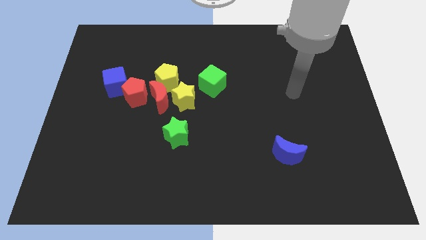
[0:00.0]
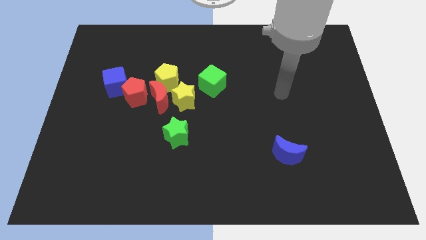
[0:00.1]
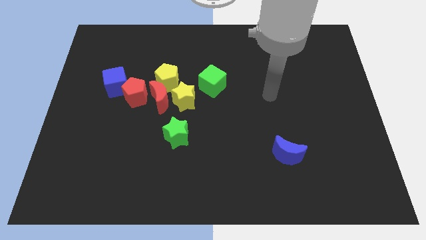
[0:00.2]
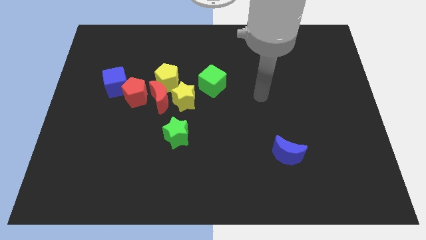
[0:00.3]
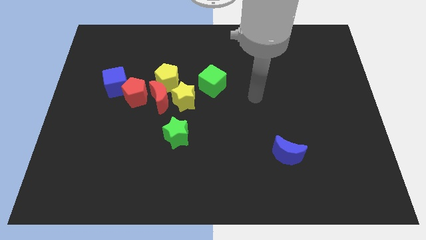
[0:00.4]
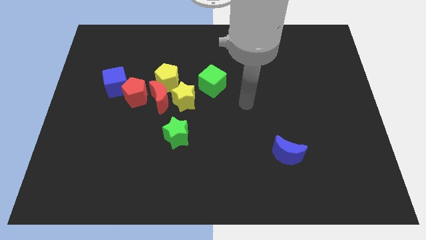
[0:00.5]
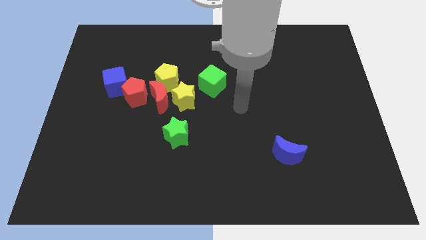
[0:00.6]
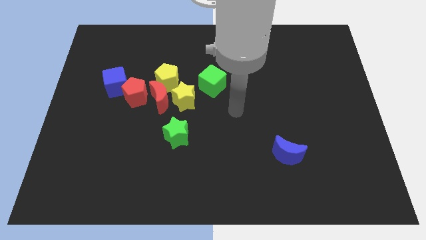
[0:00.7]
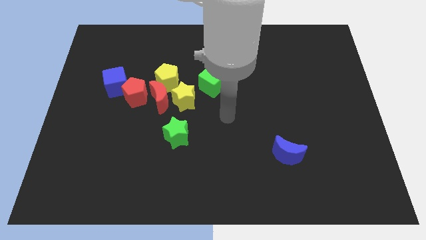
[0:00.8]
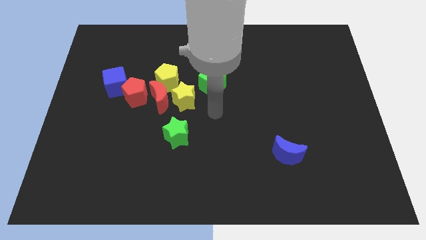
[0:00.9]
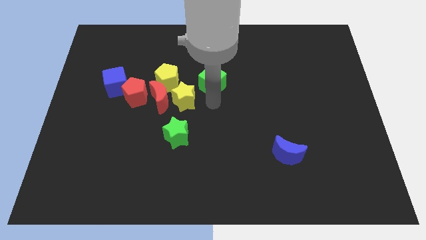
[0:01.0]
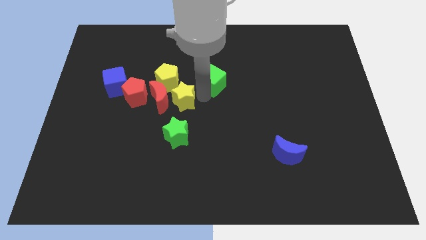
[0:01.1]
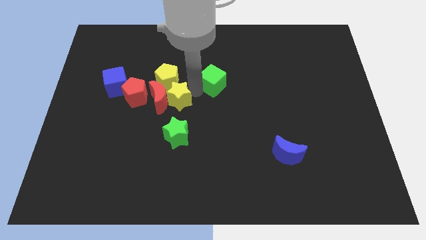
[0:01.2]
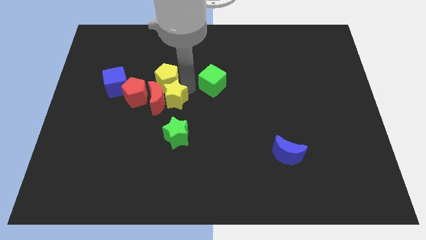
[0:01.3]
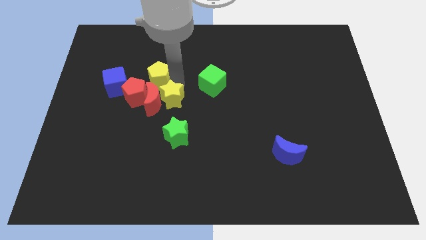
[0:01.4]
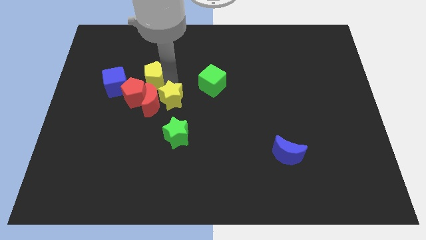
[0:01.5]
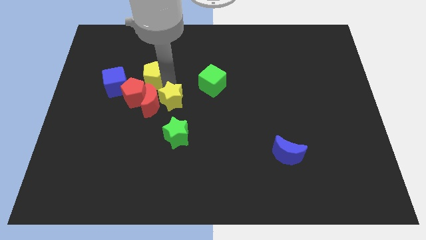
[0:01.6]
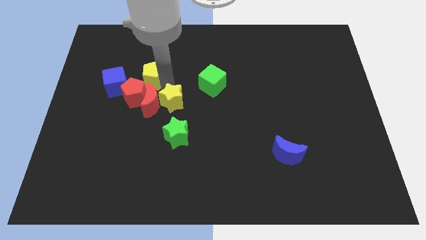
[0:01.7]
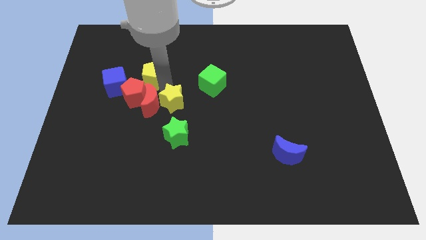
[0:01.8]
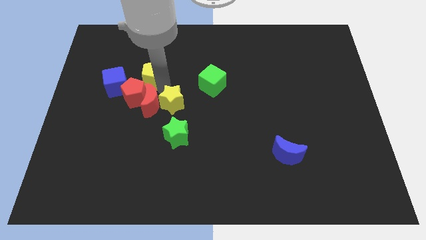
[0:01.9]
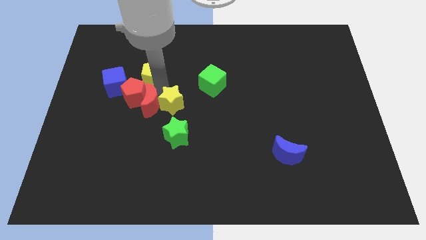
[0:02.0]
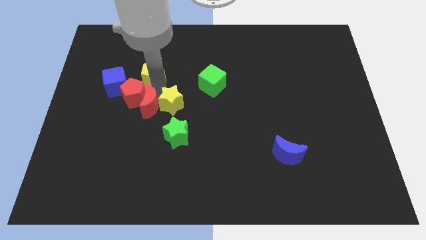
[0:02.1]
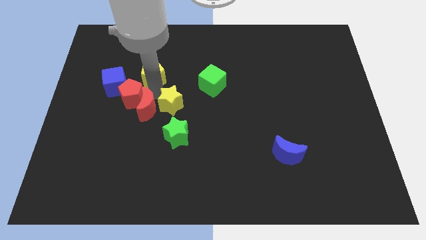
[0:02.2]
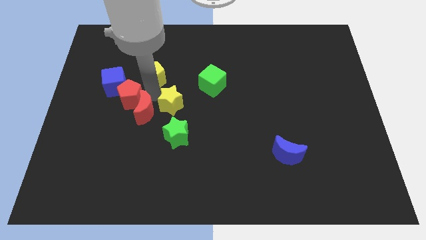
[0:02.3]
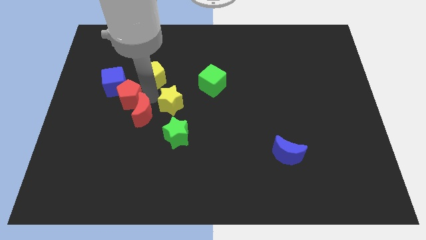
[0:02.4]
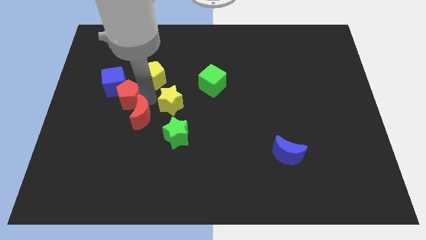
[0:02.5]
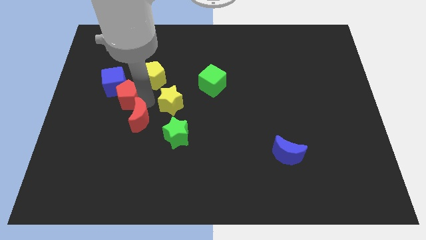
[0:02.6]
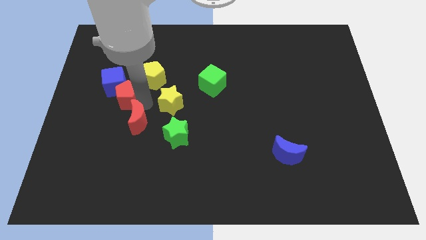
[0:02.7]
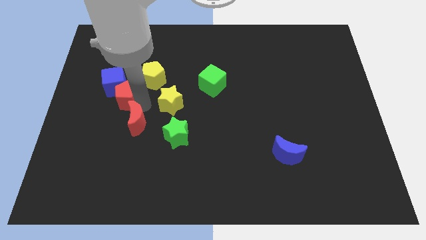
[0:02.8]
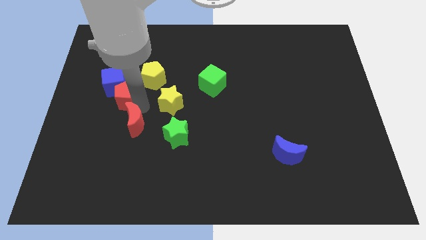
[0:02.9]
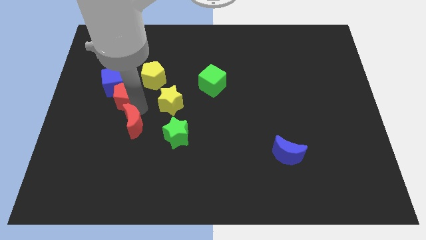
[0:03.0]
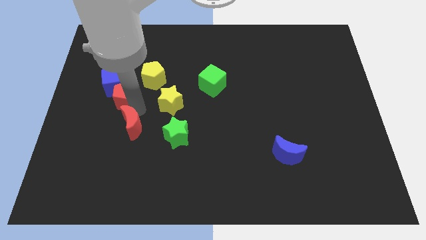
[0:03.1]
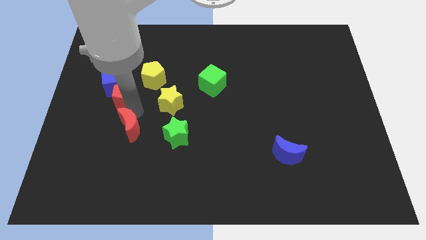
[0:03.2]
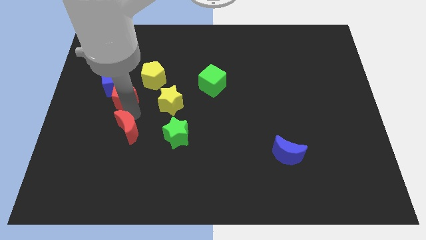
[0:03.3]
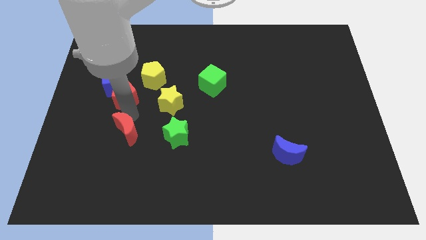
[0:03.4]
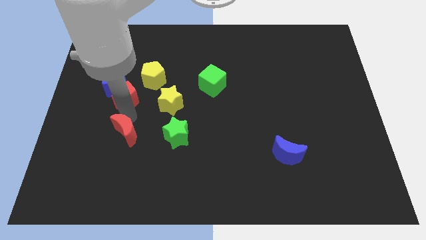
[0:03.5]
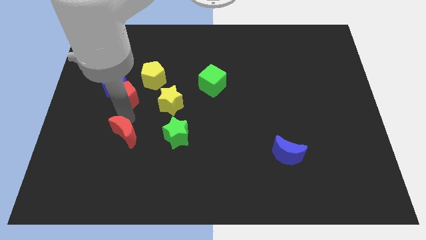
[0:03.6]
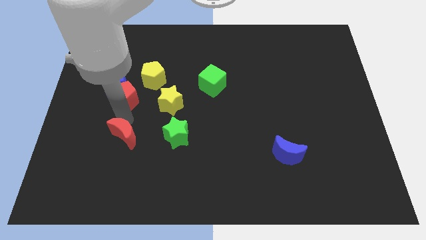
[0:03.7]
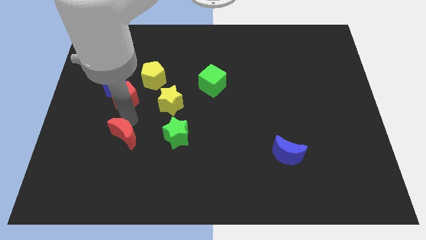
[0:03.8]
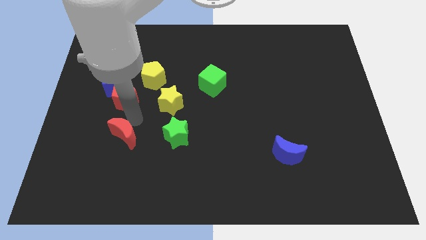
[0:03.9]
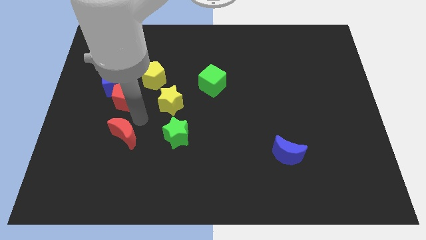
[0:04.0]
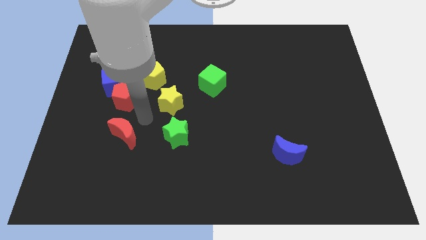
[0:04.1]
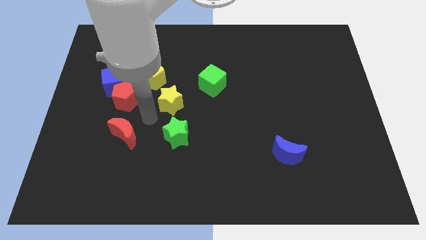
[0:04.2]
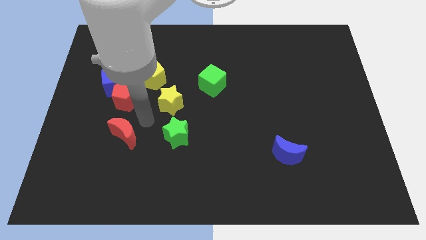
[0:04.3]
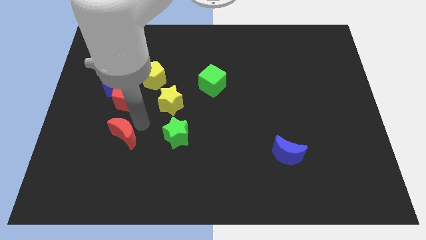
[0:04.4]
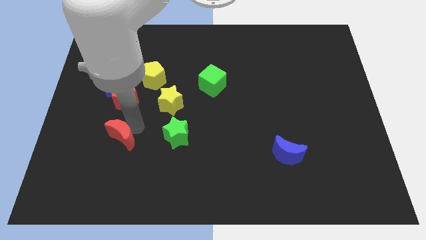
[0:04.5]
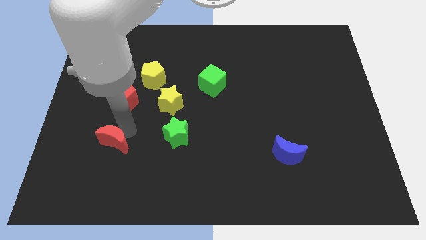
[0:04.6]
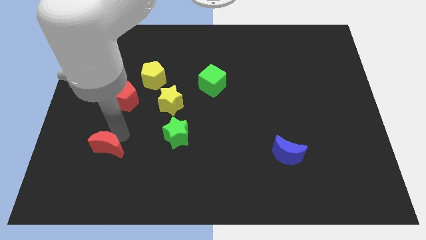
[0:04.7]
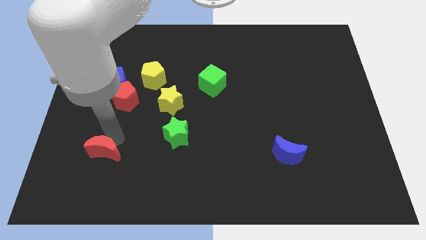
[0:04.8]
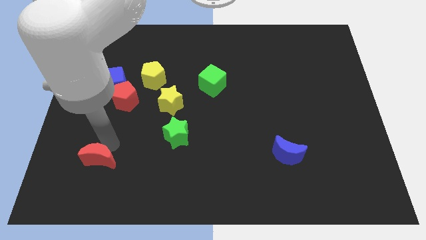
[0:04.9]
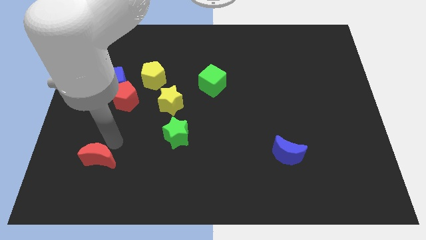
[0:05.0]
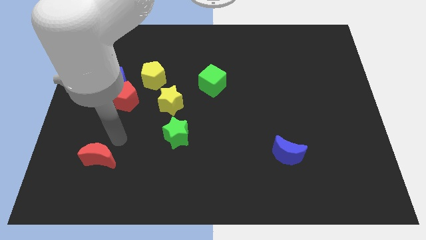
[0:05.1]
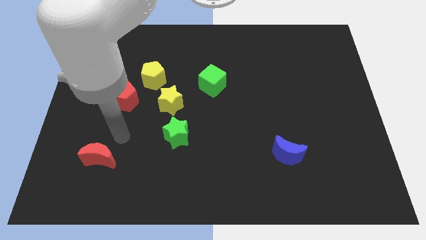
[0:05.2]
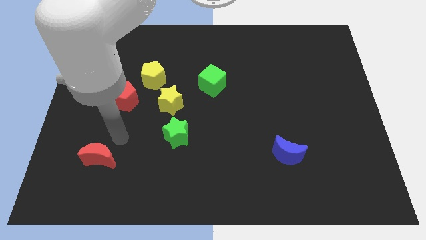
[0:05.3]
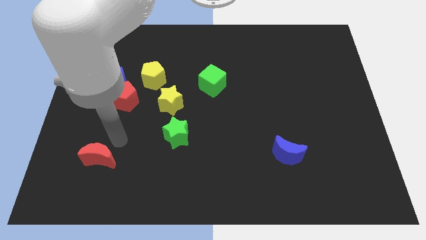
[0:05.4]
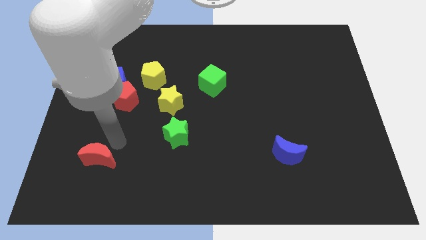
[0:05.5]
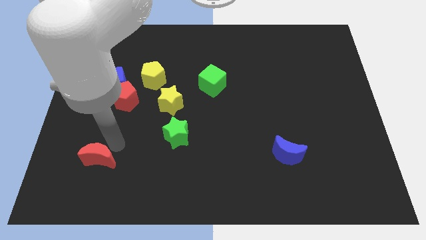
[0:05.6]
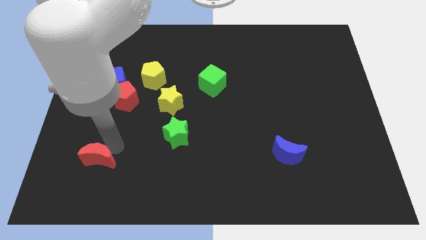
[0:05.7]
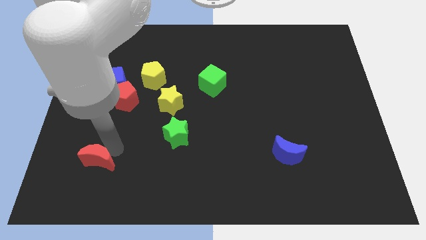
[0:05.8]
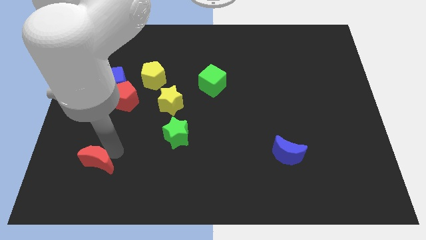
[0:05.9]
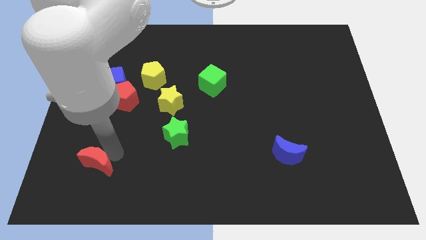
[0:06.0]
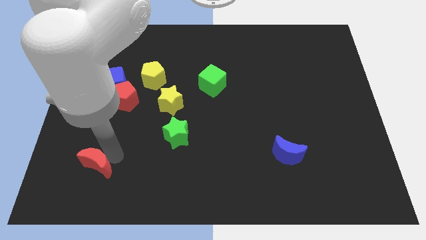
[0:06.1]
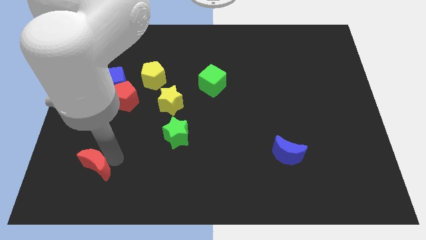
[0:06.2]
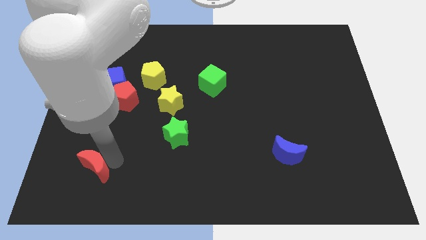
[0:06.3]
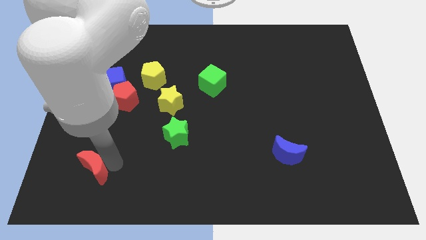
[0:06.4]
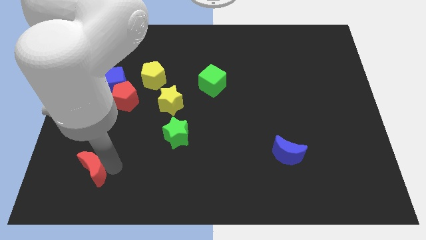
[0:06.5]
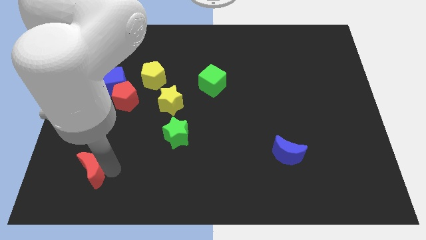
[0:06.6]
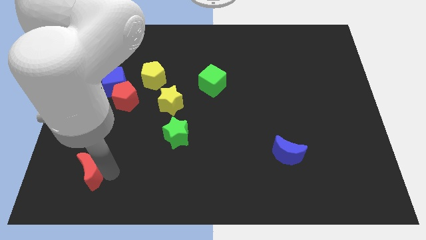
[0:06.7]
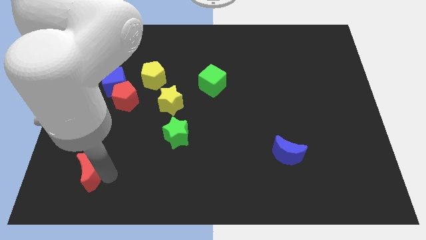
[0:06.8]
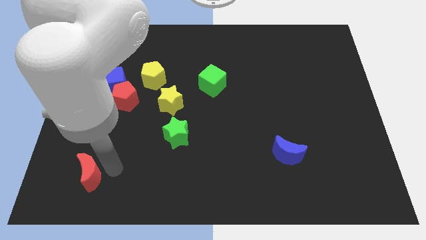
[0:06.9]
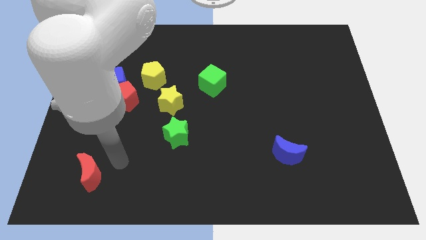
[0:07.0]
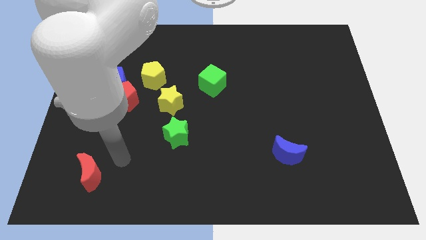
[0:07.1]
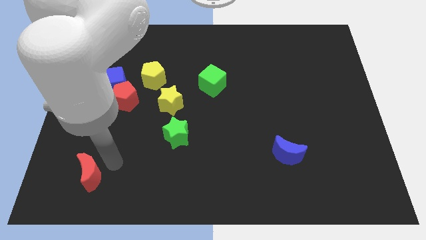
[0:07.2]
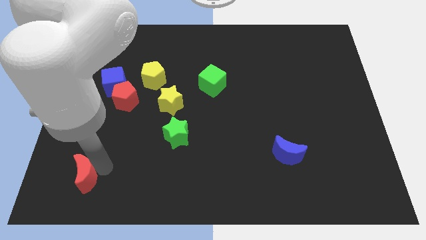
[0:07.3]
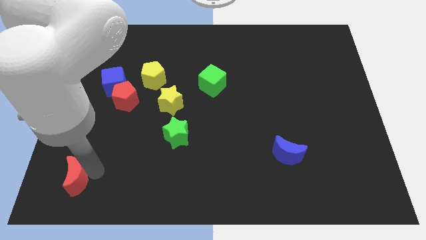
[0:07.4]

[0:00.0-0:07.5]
put the red moon to the bottom left
